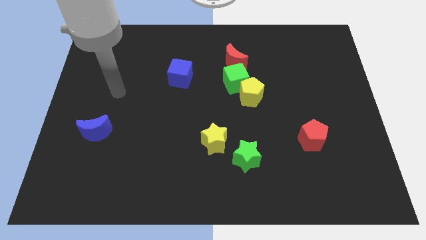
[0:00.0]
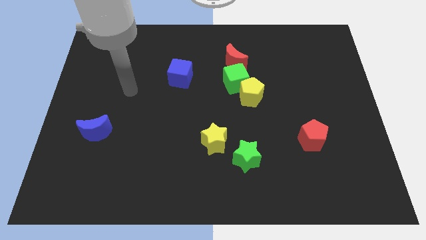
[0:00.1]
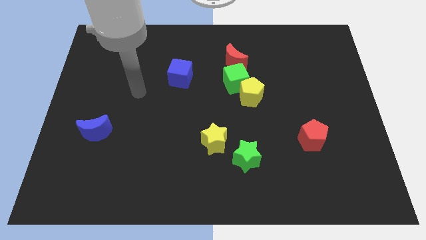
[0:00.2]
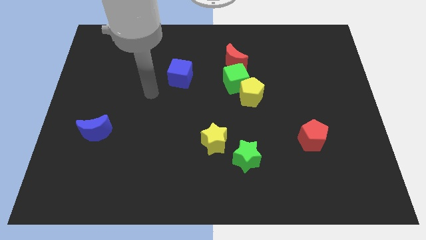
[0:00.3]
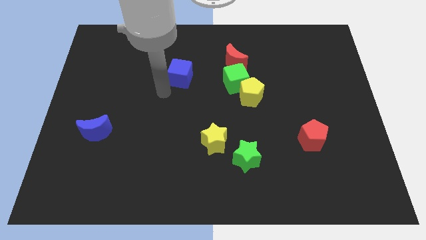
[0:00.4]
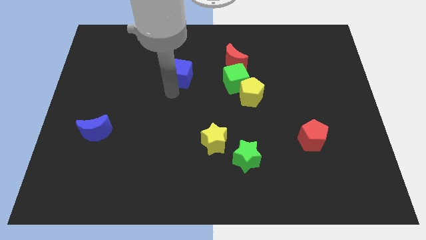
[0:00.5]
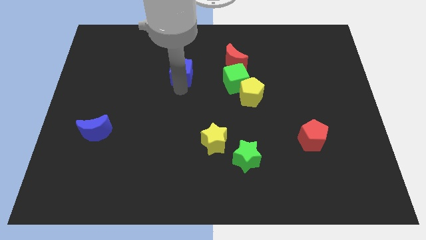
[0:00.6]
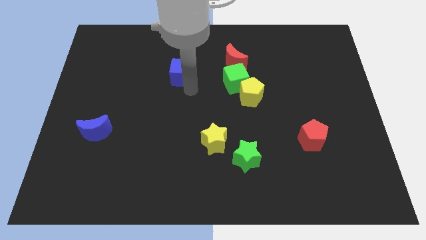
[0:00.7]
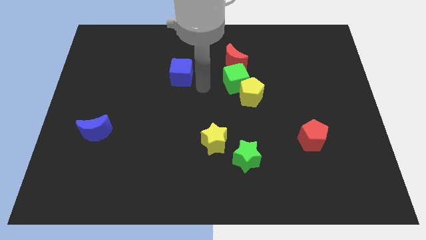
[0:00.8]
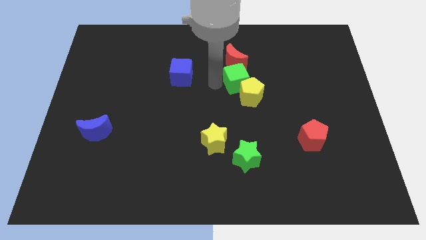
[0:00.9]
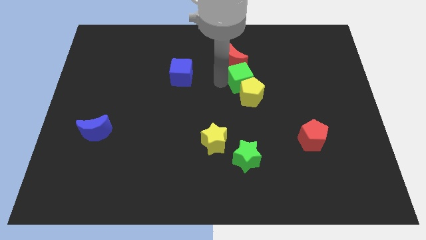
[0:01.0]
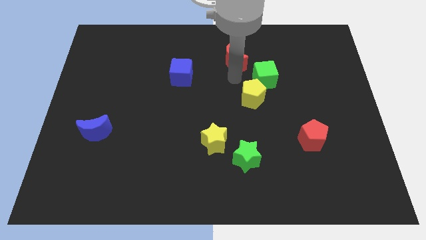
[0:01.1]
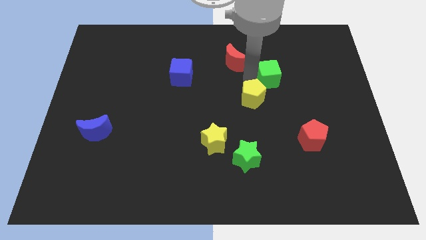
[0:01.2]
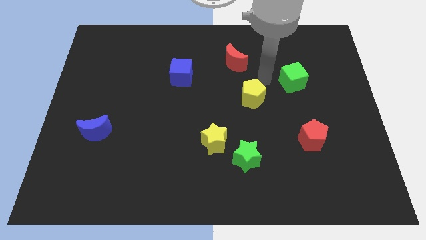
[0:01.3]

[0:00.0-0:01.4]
move the yellow pentagon away from the green cube

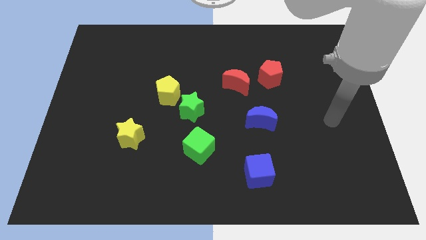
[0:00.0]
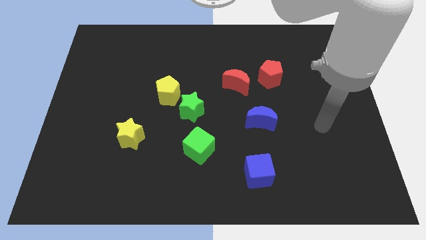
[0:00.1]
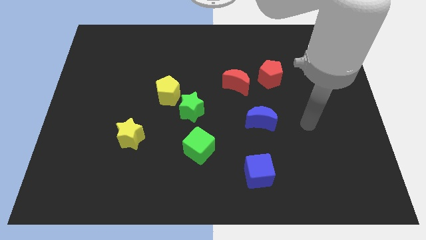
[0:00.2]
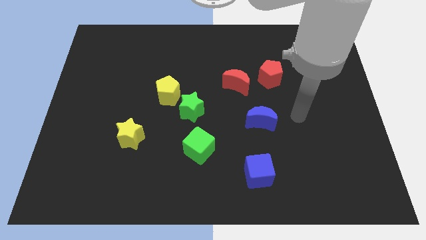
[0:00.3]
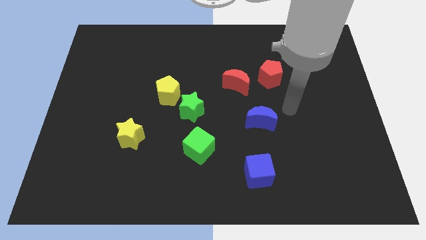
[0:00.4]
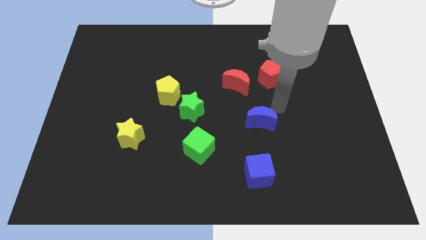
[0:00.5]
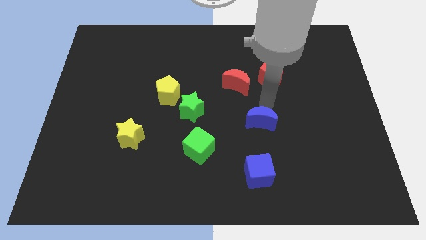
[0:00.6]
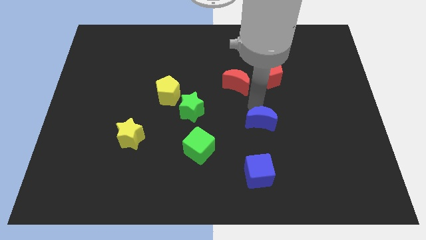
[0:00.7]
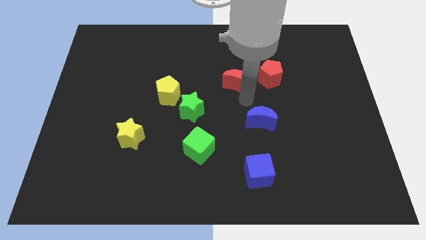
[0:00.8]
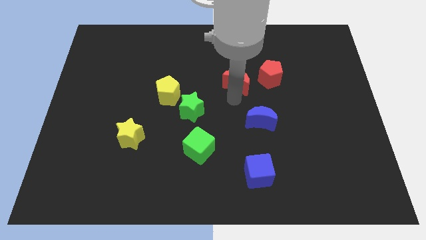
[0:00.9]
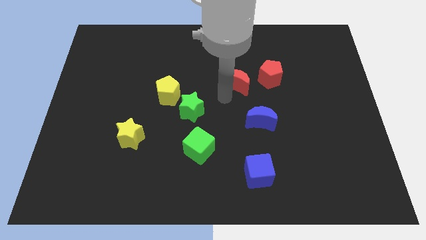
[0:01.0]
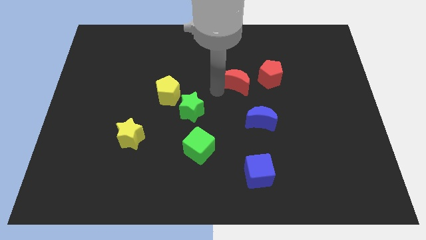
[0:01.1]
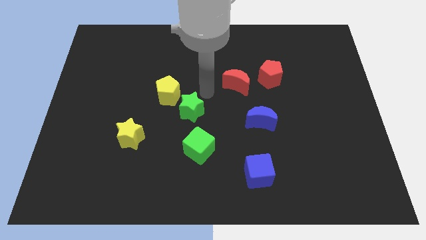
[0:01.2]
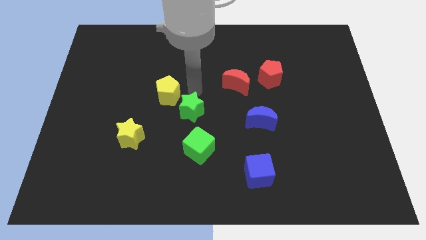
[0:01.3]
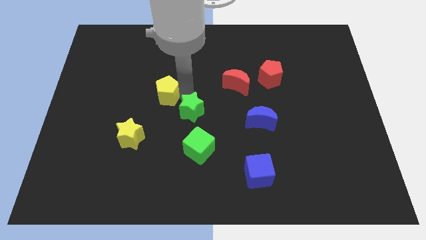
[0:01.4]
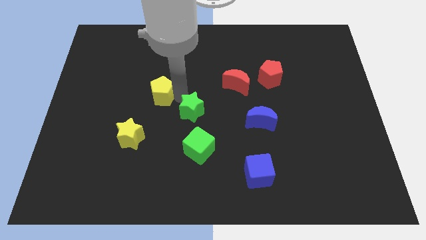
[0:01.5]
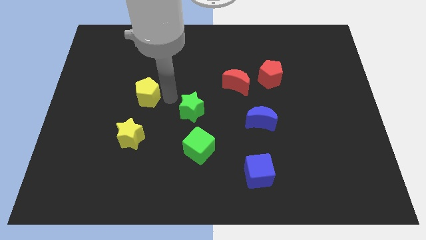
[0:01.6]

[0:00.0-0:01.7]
pull the green star apart from the yellow pentagon

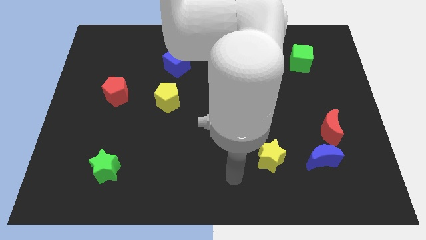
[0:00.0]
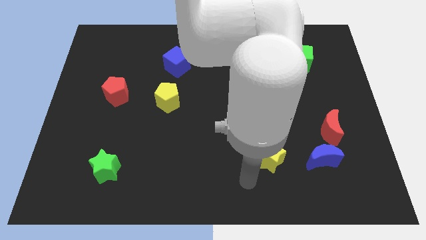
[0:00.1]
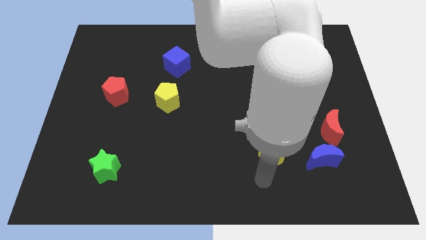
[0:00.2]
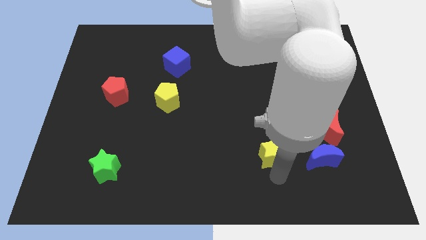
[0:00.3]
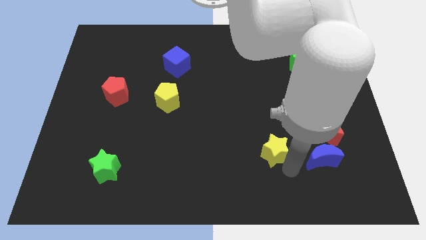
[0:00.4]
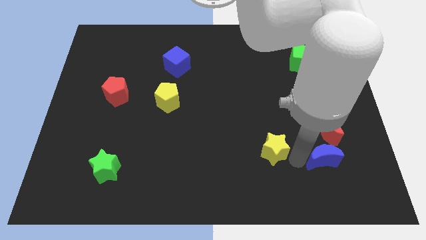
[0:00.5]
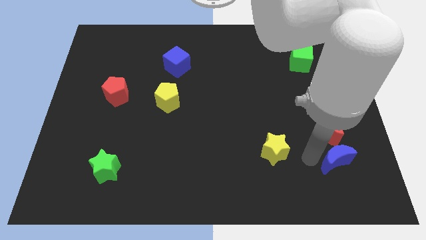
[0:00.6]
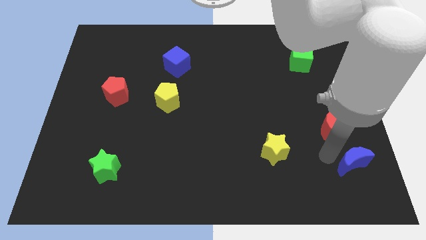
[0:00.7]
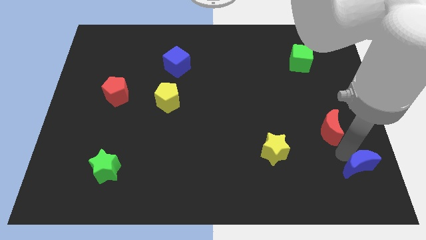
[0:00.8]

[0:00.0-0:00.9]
separate the red moon from the blue moon

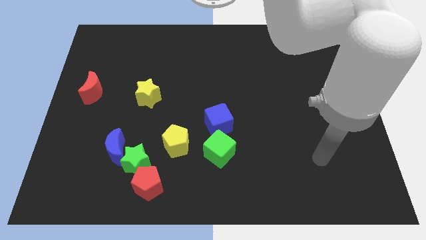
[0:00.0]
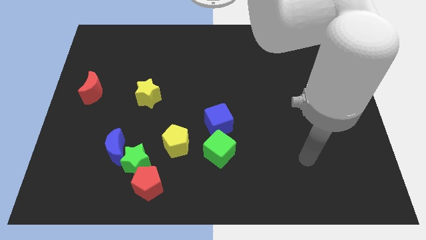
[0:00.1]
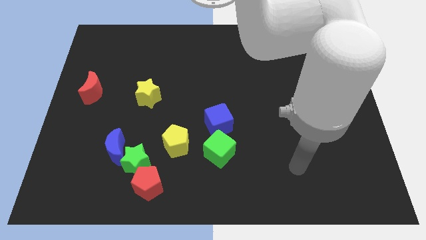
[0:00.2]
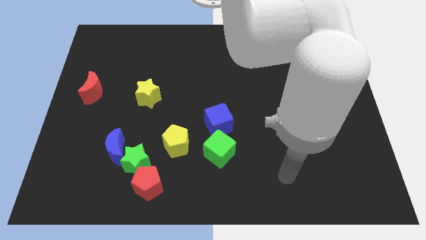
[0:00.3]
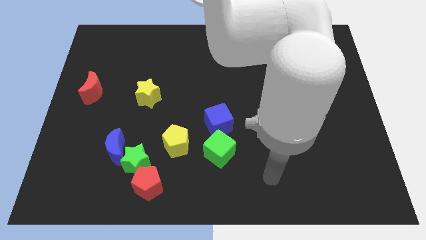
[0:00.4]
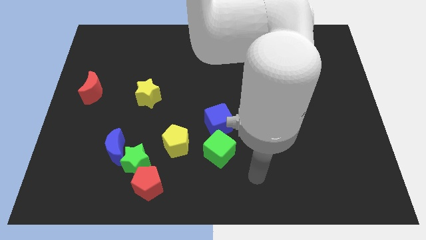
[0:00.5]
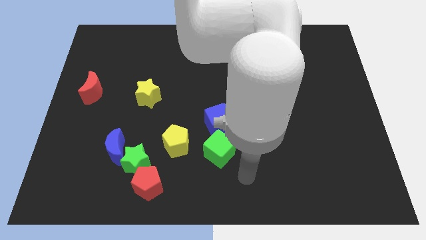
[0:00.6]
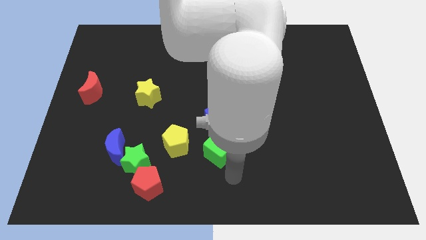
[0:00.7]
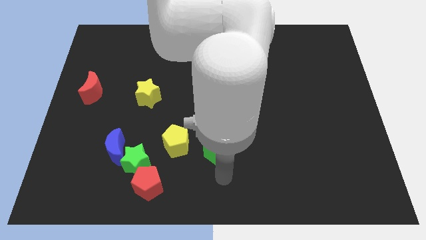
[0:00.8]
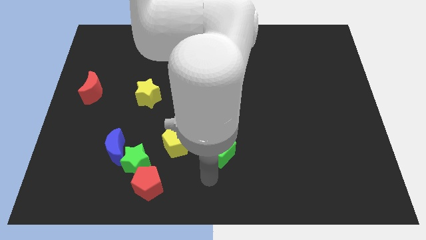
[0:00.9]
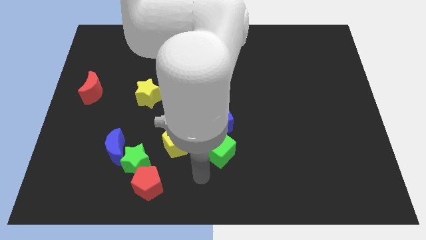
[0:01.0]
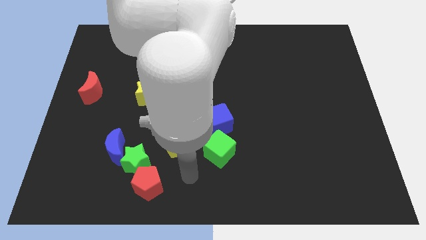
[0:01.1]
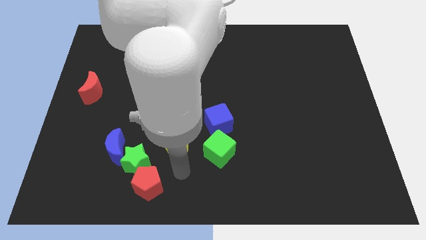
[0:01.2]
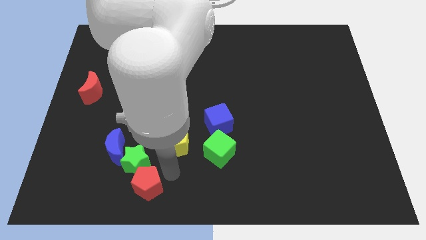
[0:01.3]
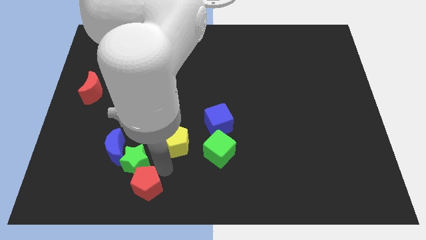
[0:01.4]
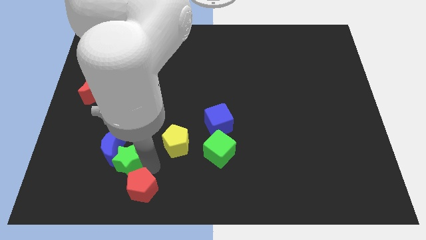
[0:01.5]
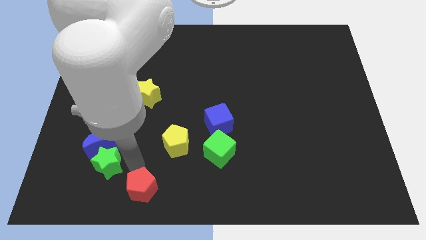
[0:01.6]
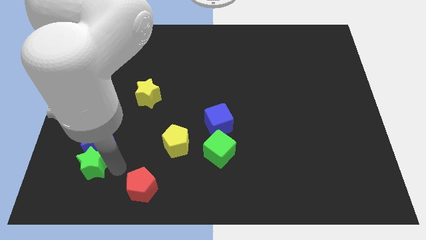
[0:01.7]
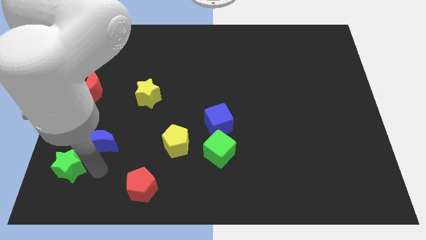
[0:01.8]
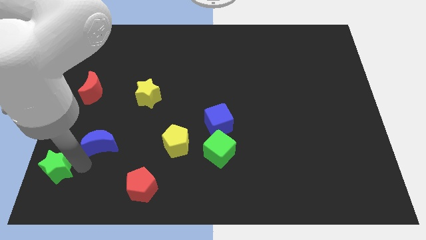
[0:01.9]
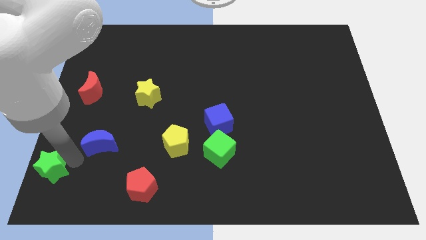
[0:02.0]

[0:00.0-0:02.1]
pull the blue moon apart from the green star

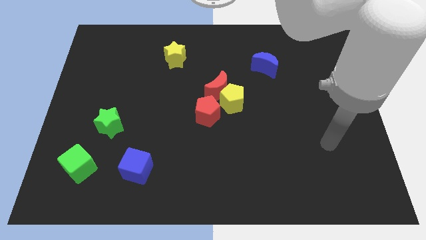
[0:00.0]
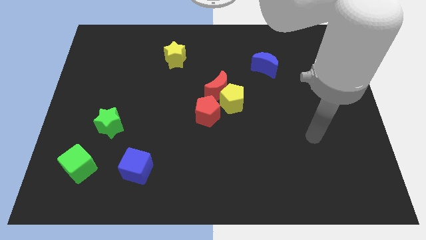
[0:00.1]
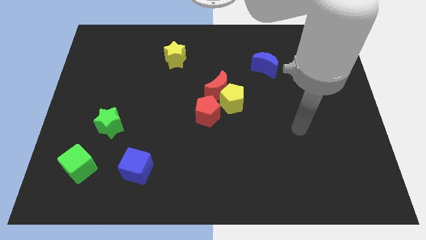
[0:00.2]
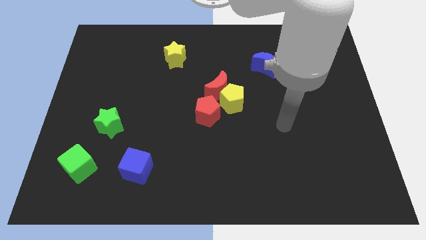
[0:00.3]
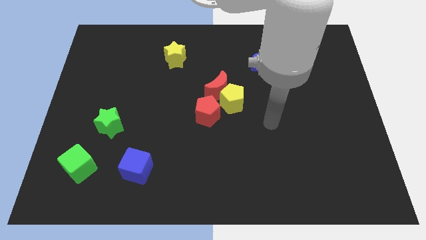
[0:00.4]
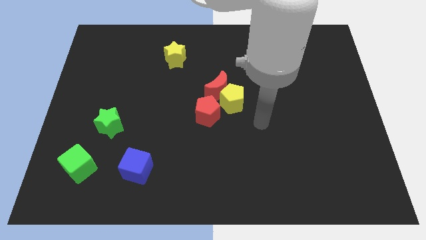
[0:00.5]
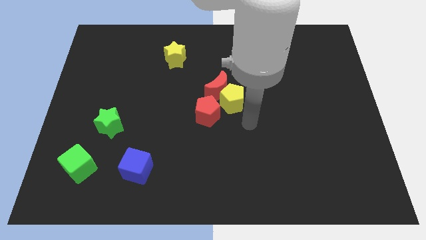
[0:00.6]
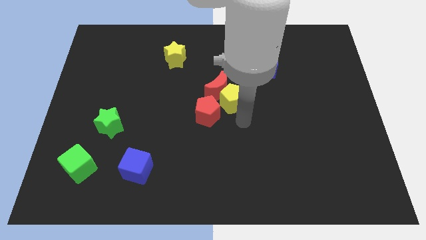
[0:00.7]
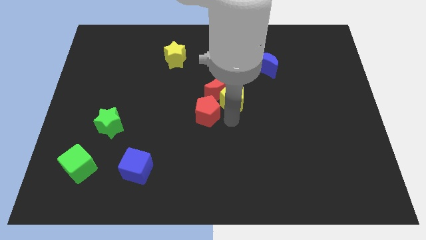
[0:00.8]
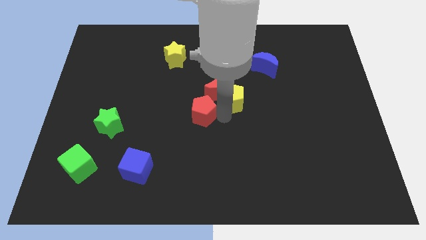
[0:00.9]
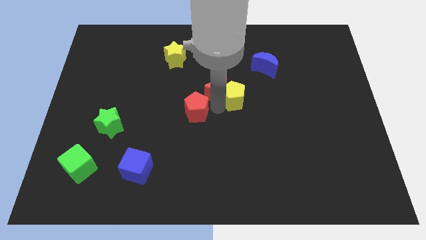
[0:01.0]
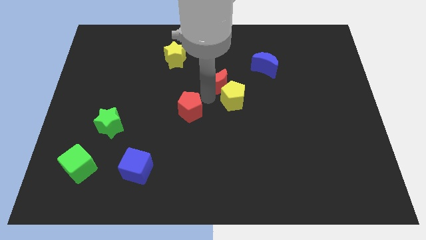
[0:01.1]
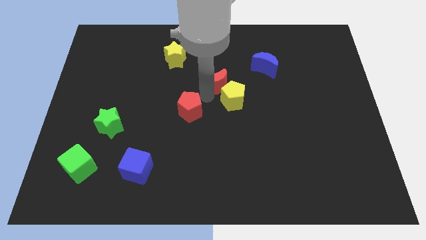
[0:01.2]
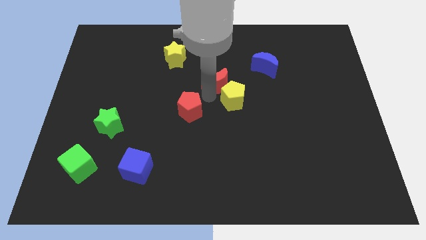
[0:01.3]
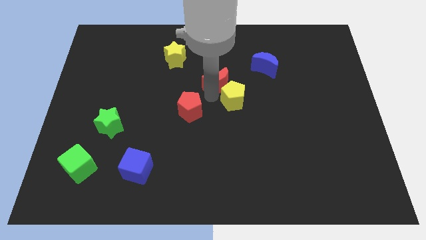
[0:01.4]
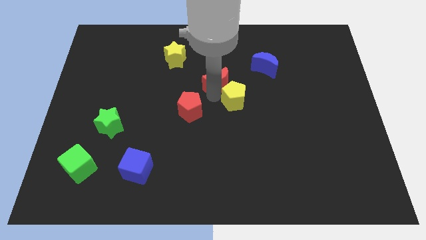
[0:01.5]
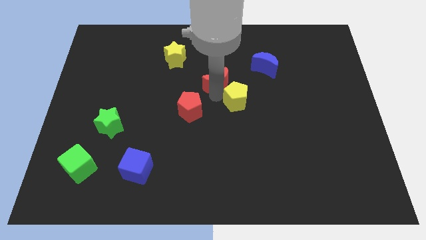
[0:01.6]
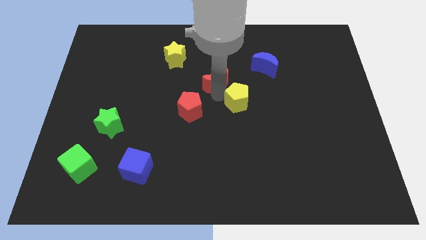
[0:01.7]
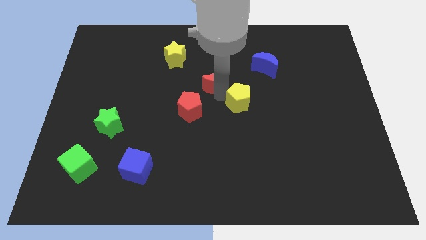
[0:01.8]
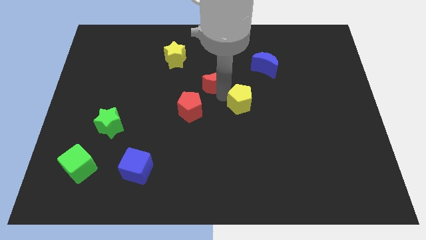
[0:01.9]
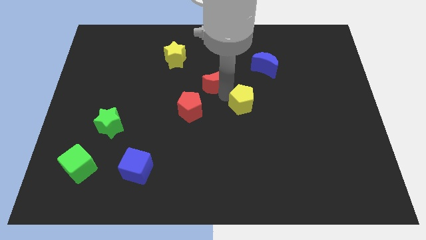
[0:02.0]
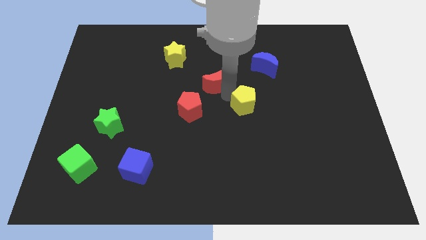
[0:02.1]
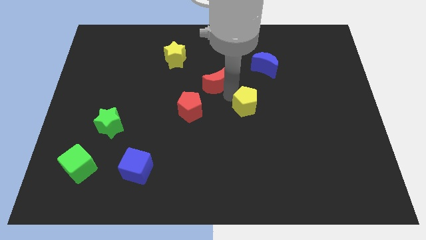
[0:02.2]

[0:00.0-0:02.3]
separate the yellow pentagon from the red moon and red pentagon

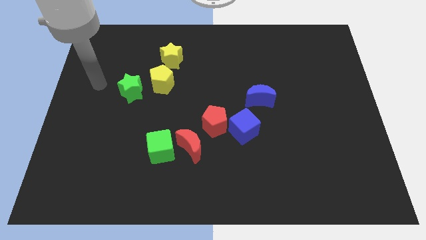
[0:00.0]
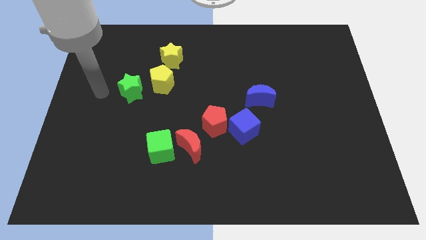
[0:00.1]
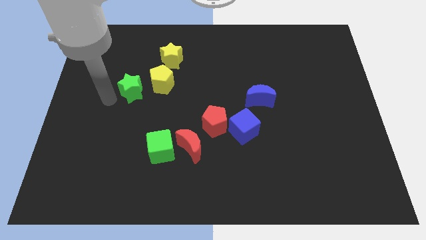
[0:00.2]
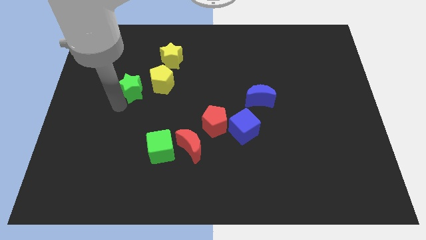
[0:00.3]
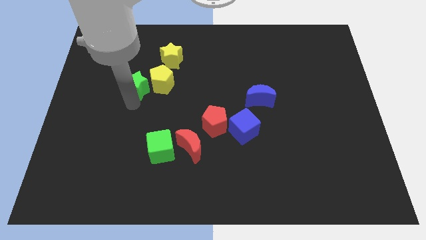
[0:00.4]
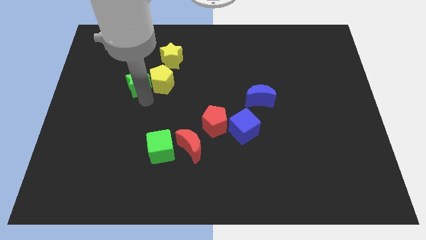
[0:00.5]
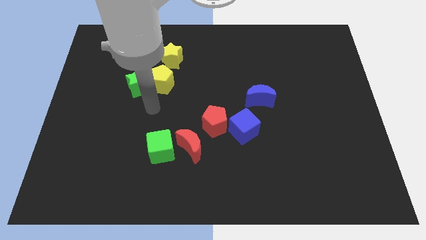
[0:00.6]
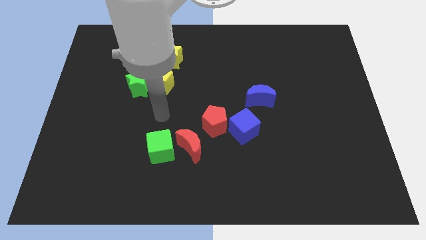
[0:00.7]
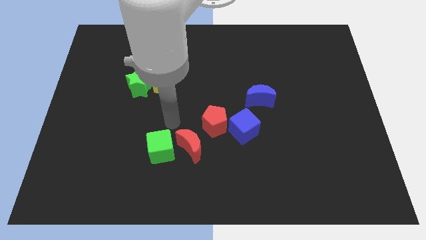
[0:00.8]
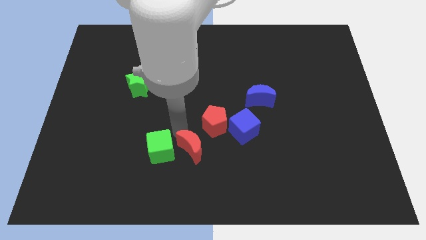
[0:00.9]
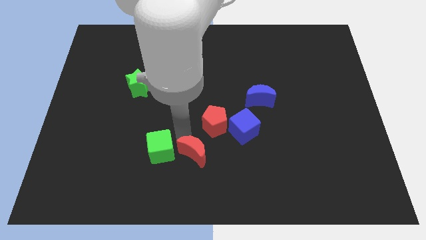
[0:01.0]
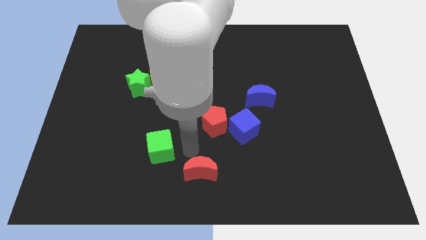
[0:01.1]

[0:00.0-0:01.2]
pull the green cube apart from the red moon
